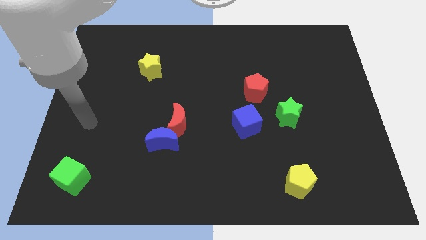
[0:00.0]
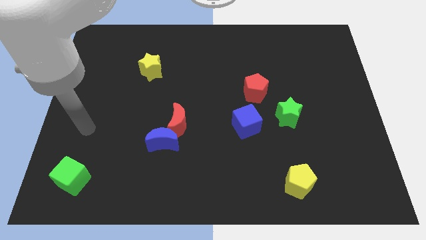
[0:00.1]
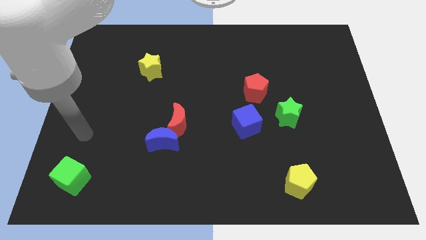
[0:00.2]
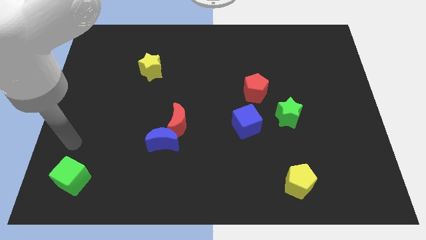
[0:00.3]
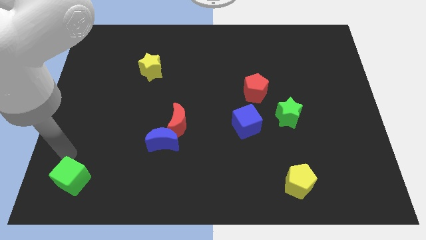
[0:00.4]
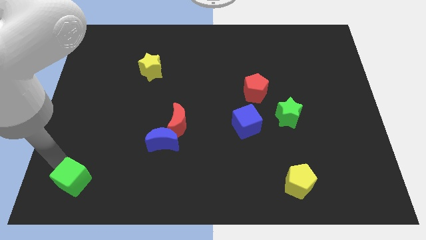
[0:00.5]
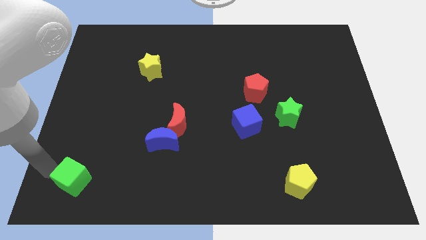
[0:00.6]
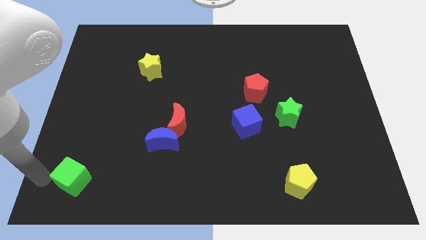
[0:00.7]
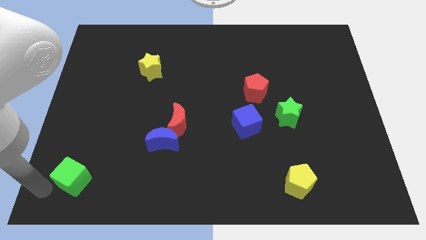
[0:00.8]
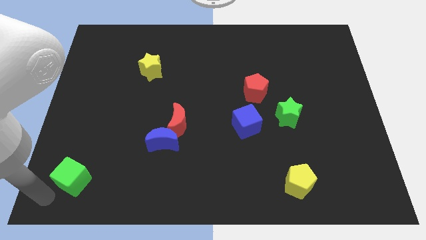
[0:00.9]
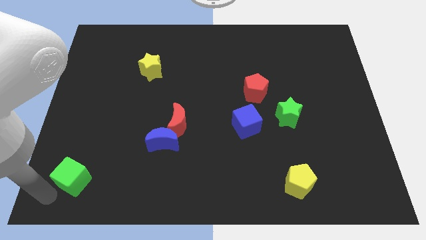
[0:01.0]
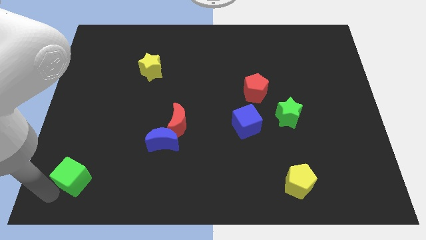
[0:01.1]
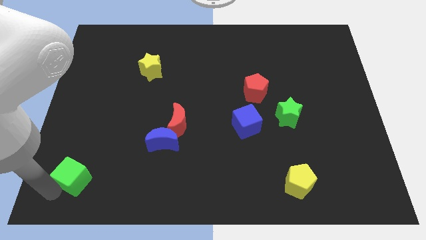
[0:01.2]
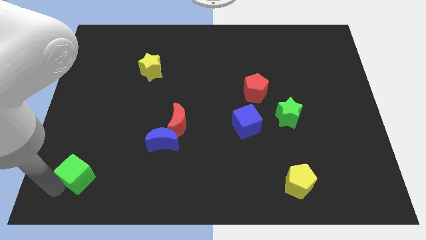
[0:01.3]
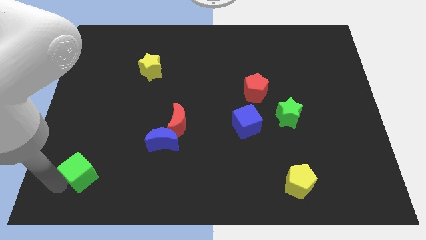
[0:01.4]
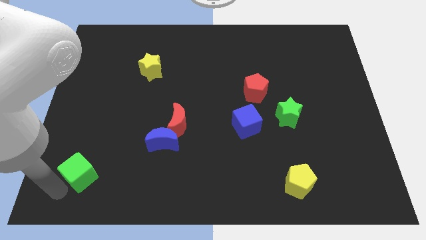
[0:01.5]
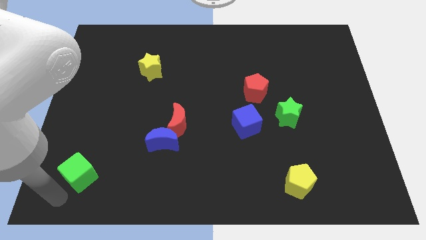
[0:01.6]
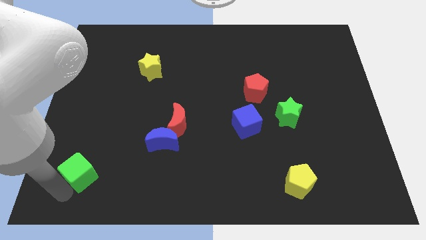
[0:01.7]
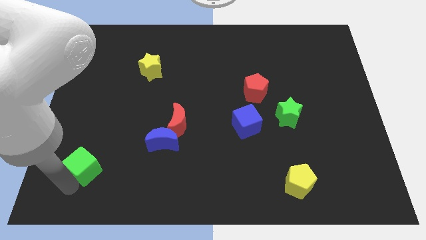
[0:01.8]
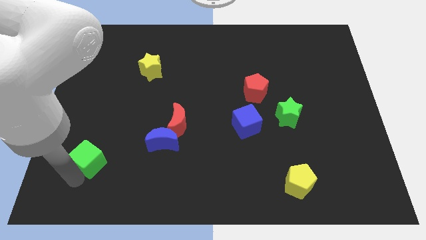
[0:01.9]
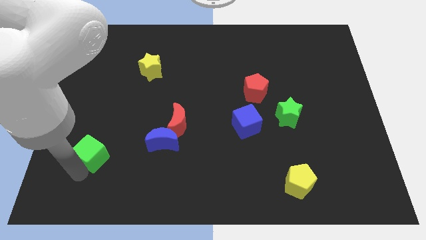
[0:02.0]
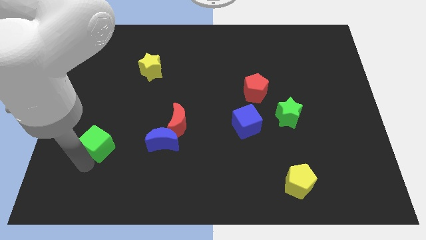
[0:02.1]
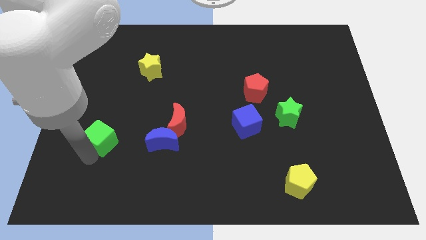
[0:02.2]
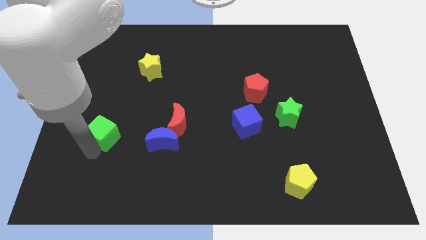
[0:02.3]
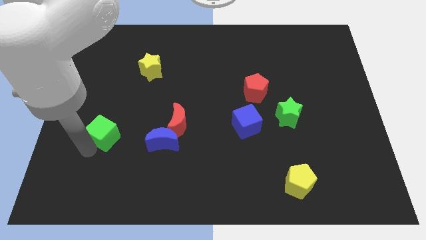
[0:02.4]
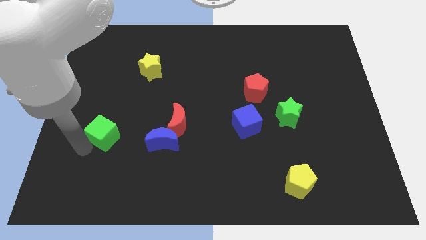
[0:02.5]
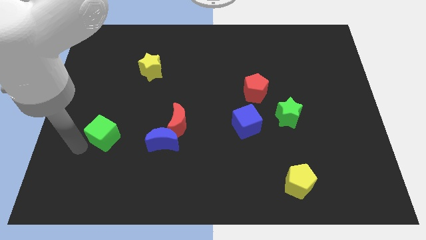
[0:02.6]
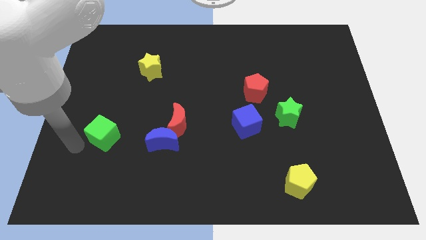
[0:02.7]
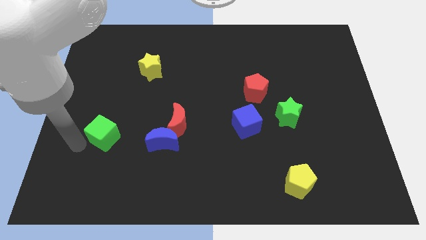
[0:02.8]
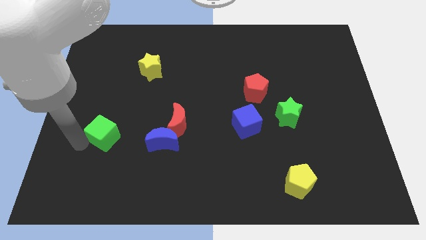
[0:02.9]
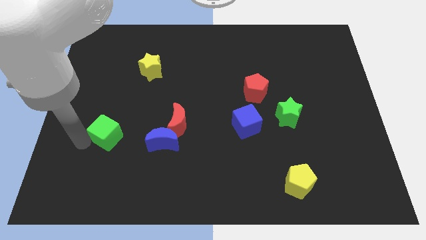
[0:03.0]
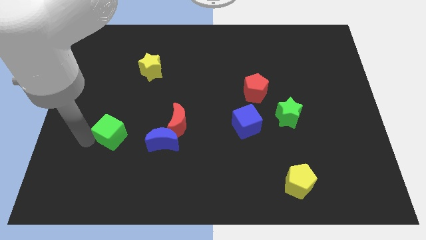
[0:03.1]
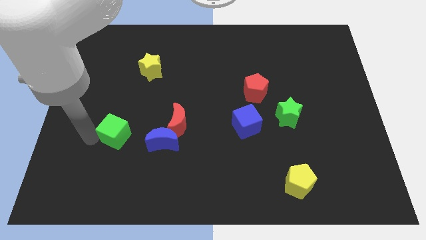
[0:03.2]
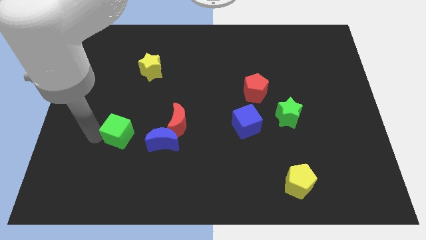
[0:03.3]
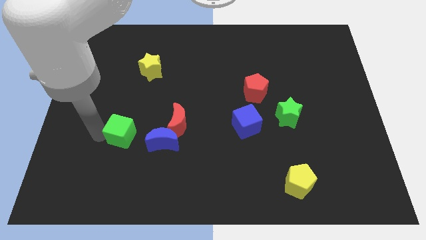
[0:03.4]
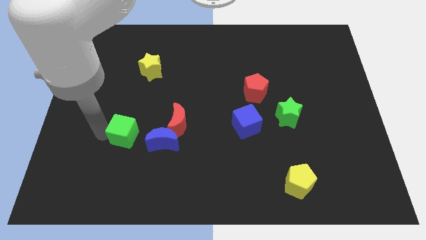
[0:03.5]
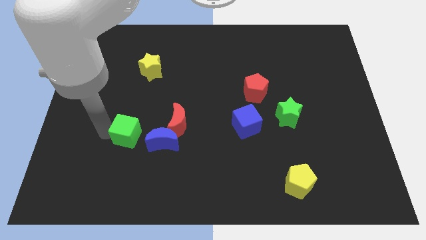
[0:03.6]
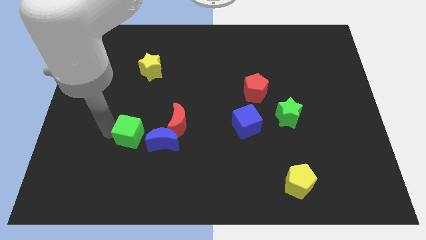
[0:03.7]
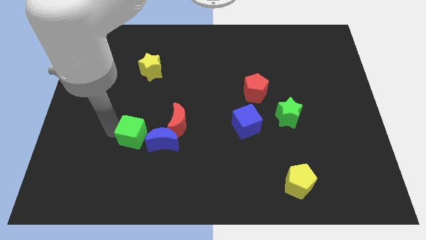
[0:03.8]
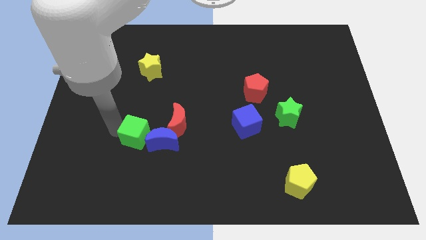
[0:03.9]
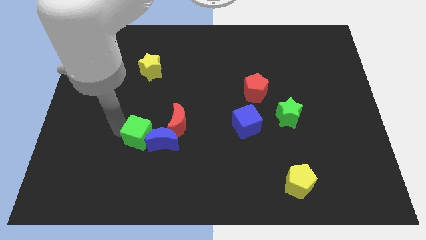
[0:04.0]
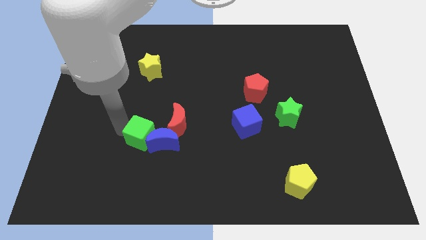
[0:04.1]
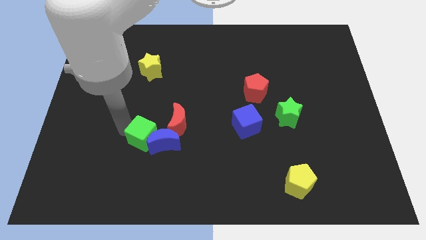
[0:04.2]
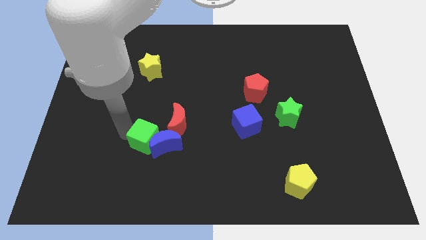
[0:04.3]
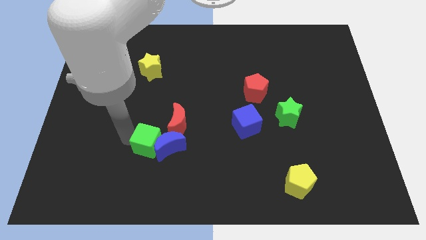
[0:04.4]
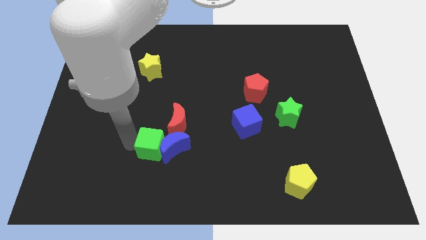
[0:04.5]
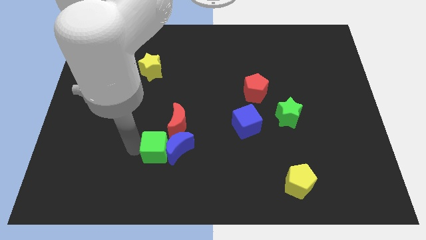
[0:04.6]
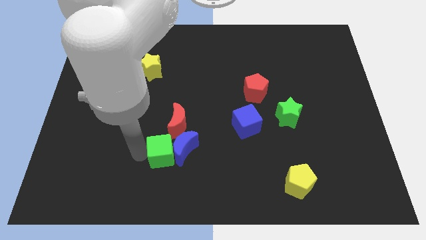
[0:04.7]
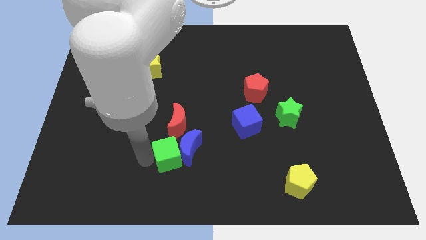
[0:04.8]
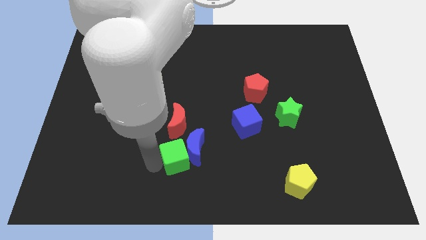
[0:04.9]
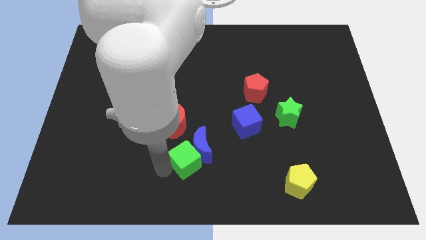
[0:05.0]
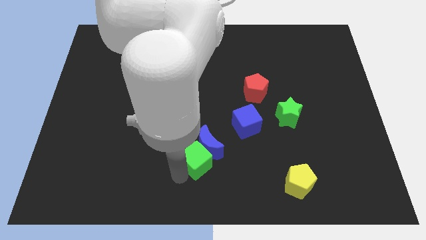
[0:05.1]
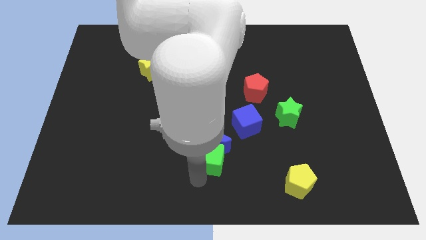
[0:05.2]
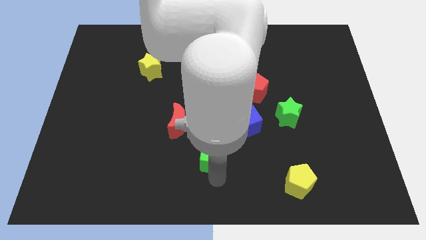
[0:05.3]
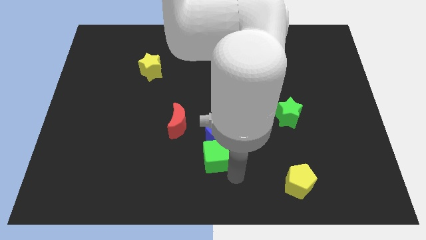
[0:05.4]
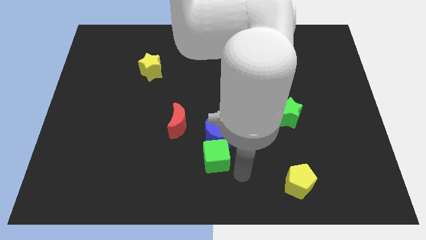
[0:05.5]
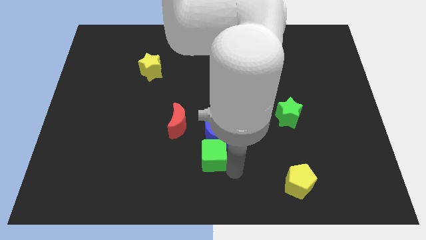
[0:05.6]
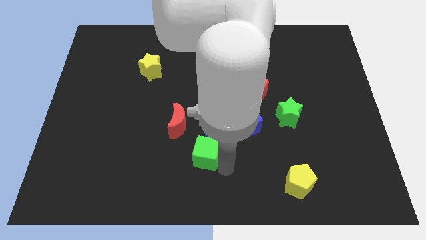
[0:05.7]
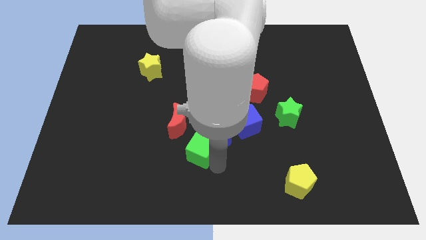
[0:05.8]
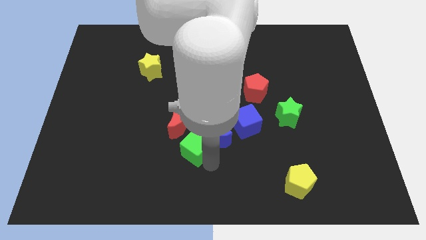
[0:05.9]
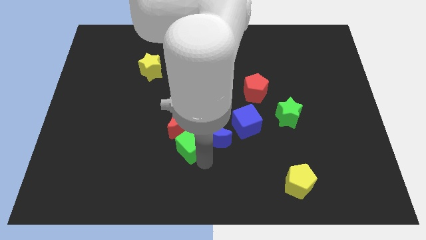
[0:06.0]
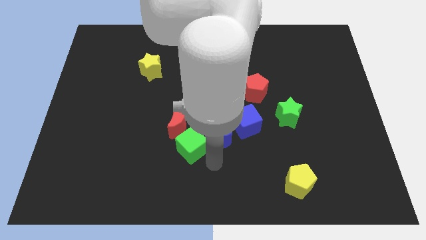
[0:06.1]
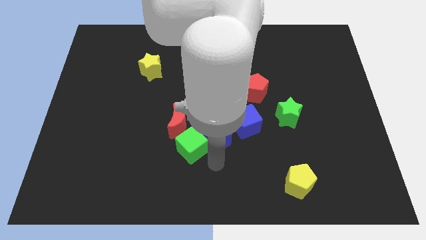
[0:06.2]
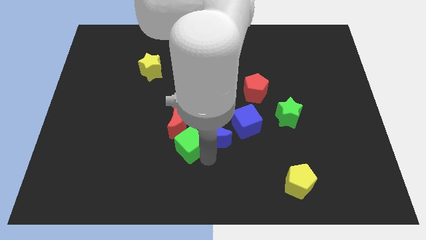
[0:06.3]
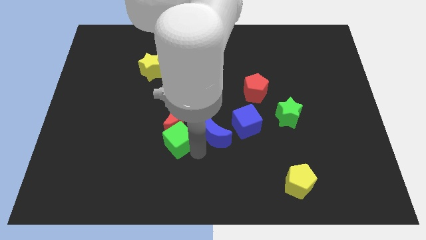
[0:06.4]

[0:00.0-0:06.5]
slide the green cube close to the red moon

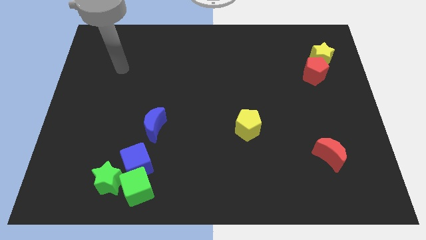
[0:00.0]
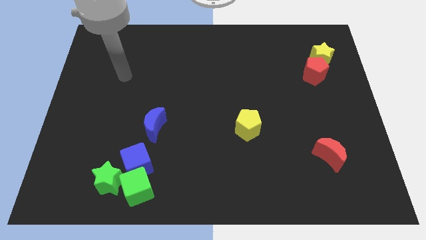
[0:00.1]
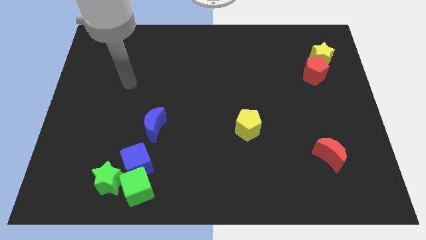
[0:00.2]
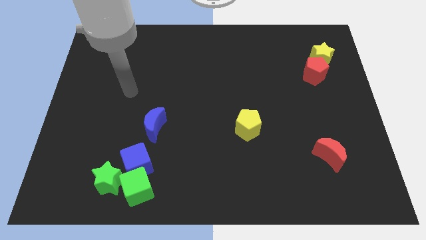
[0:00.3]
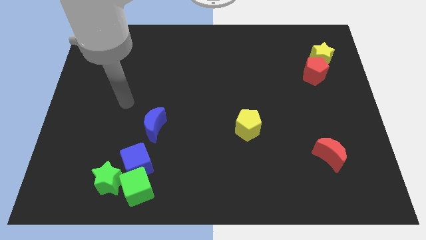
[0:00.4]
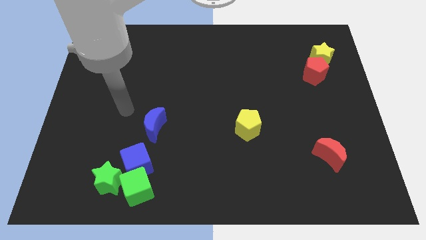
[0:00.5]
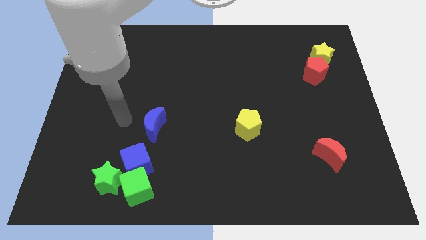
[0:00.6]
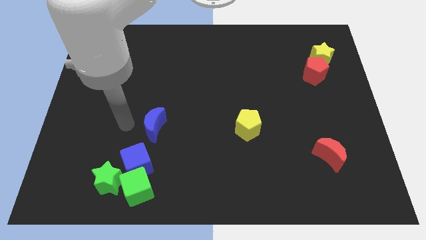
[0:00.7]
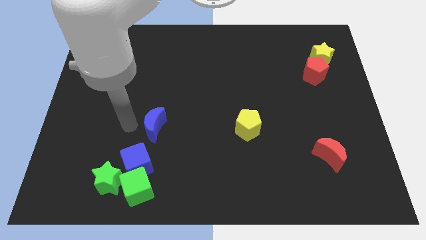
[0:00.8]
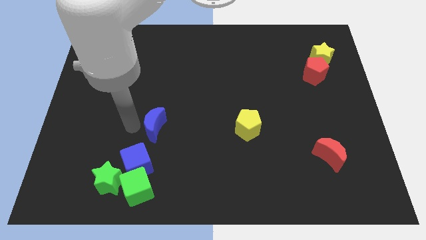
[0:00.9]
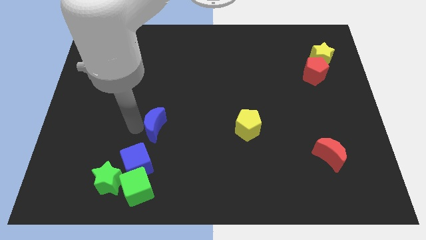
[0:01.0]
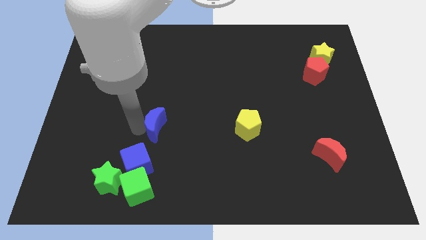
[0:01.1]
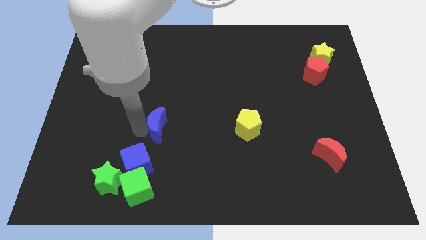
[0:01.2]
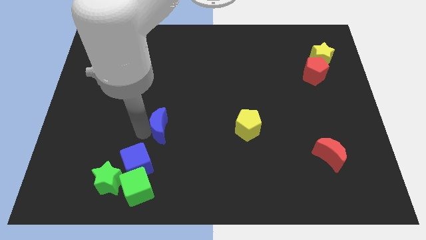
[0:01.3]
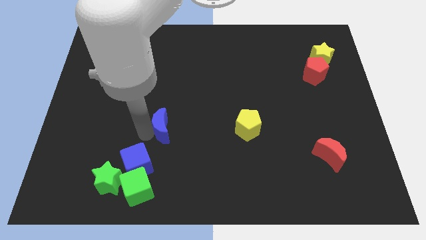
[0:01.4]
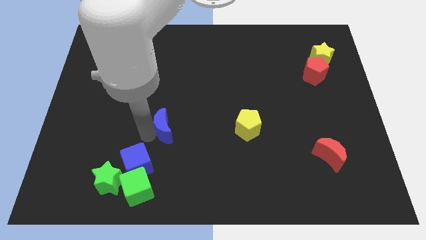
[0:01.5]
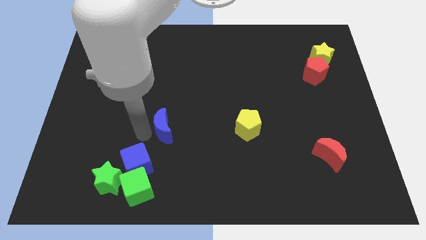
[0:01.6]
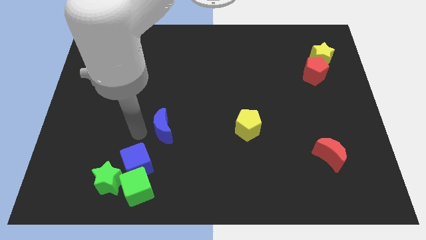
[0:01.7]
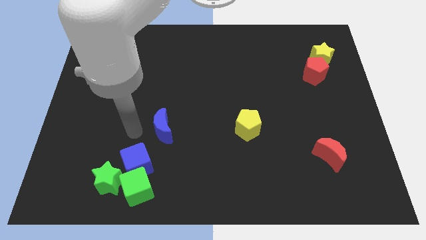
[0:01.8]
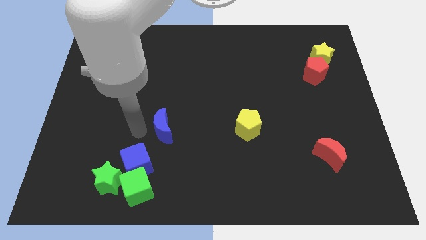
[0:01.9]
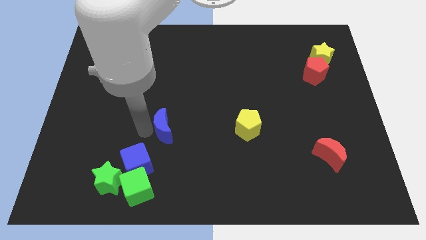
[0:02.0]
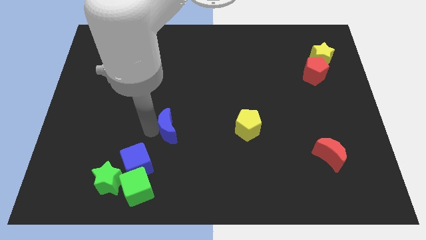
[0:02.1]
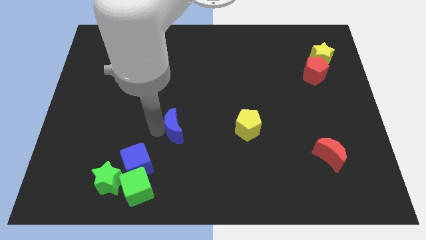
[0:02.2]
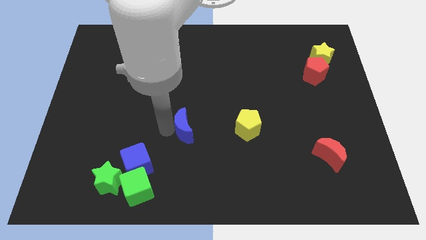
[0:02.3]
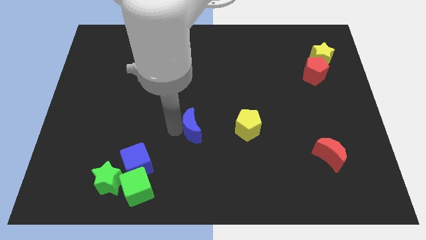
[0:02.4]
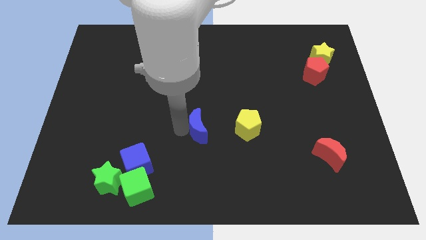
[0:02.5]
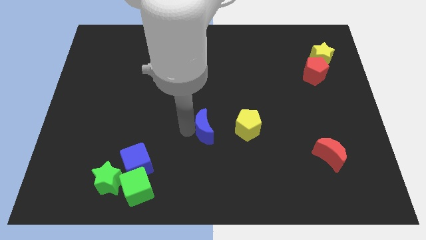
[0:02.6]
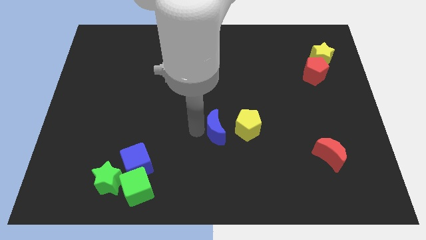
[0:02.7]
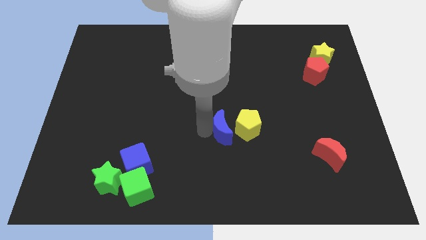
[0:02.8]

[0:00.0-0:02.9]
put the blue moon towards the yellow pentagon
